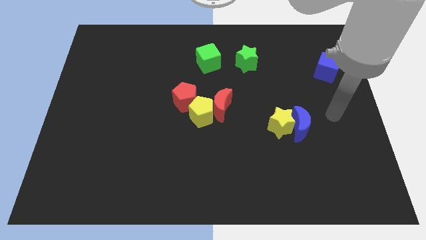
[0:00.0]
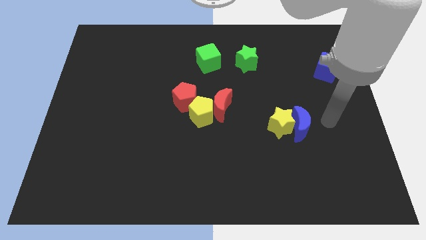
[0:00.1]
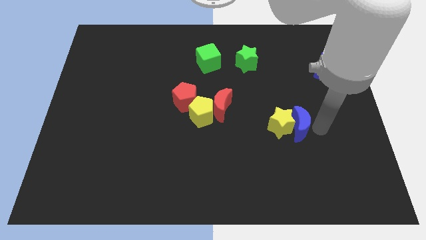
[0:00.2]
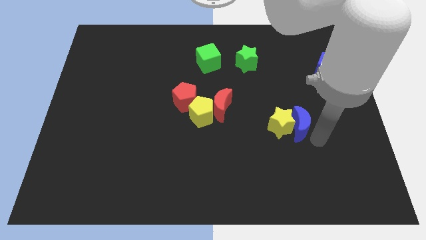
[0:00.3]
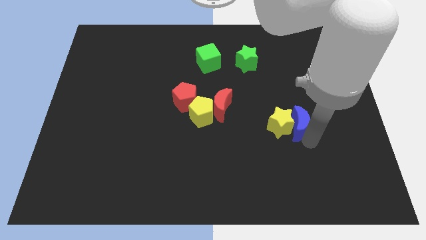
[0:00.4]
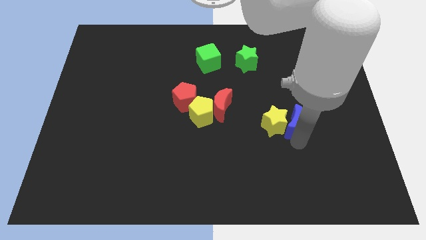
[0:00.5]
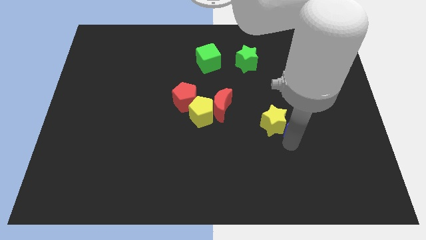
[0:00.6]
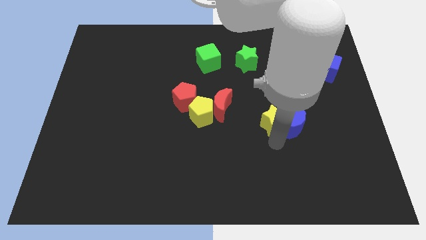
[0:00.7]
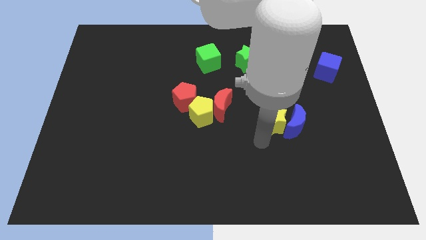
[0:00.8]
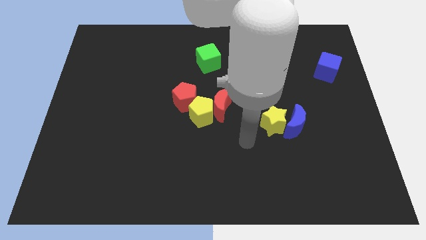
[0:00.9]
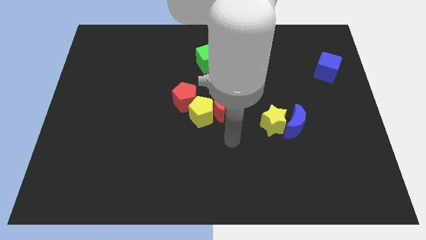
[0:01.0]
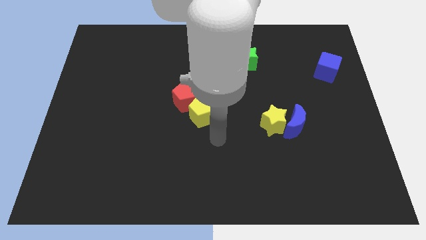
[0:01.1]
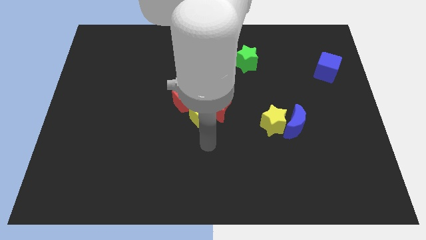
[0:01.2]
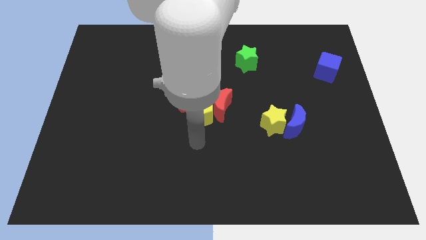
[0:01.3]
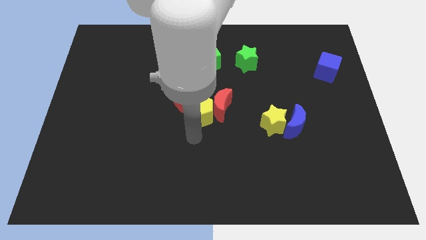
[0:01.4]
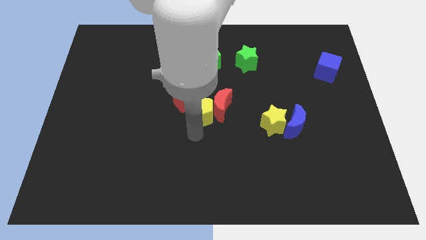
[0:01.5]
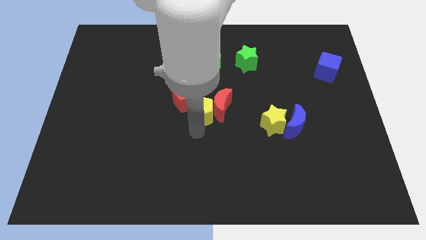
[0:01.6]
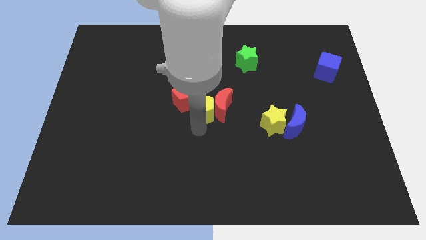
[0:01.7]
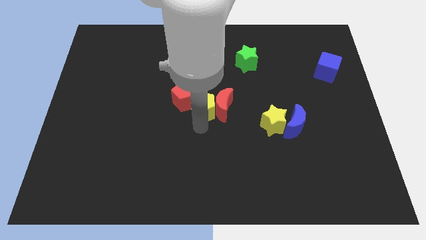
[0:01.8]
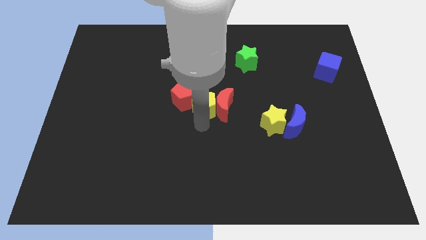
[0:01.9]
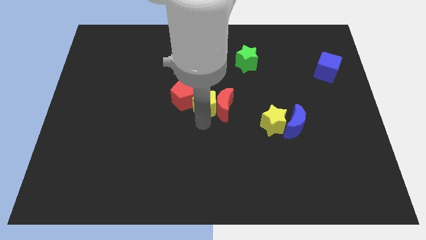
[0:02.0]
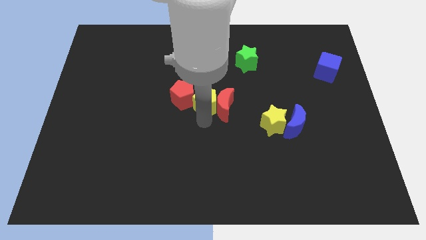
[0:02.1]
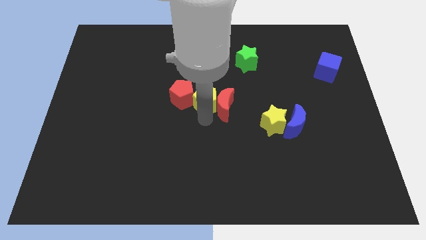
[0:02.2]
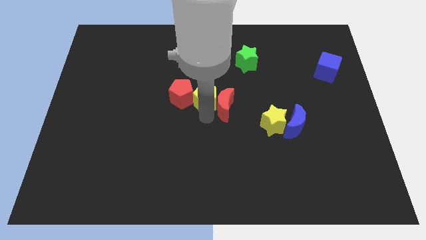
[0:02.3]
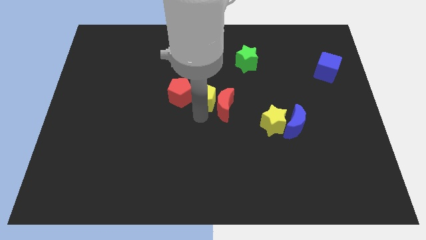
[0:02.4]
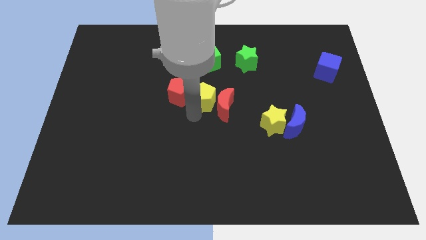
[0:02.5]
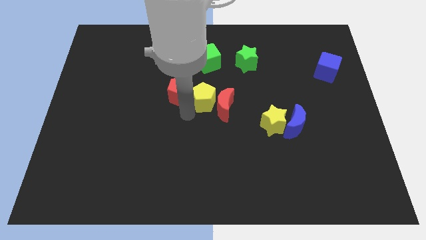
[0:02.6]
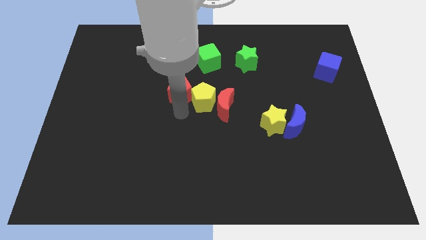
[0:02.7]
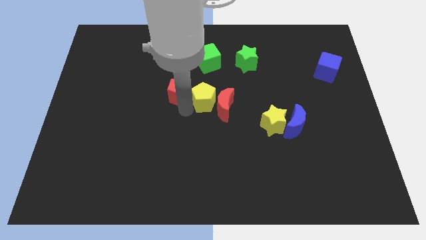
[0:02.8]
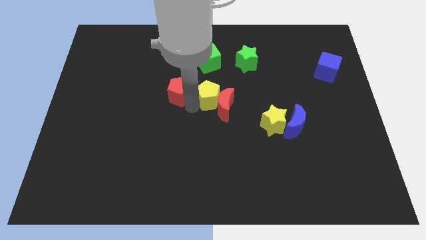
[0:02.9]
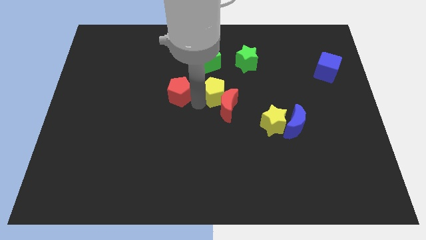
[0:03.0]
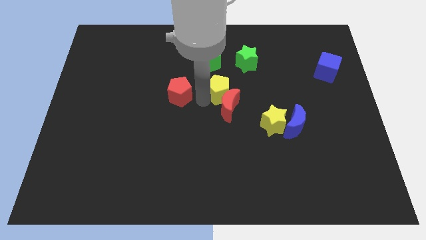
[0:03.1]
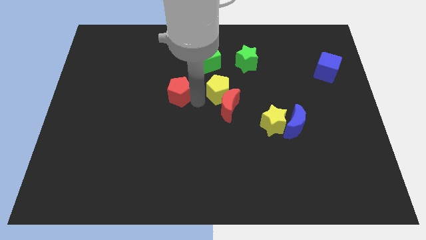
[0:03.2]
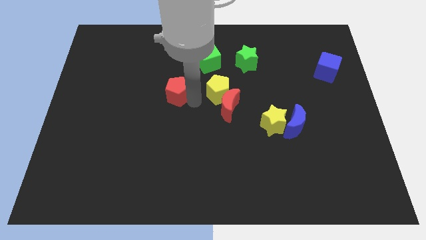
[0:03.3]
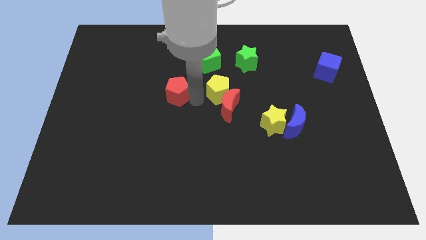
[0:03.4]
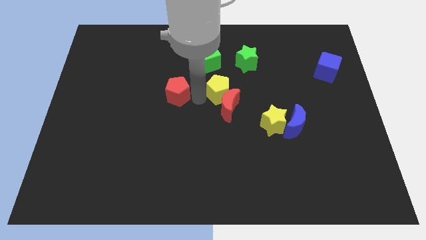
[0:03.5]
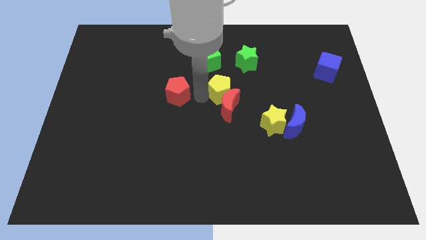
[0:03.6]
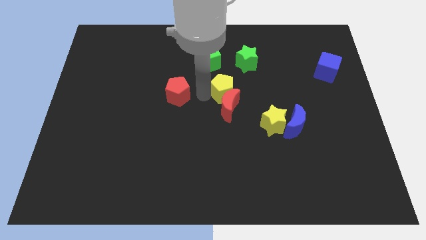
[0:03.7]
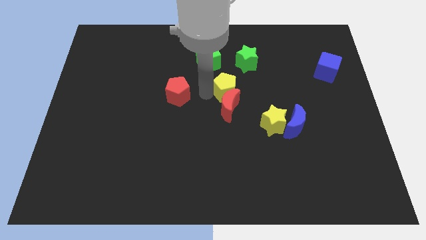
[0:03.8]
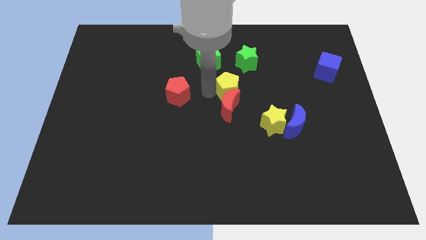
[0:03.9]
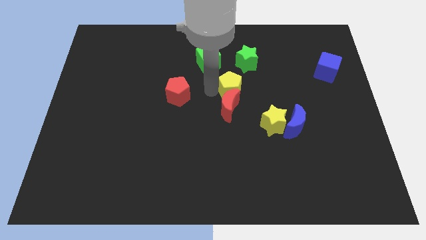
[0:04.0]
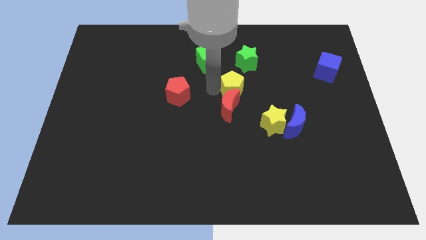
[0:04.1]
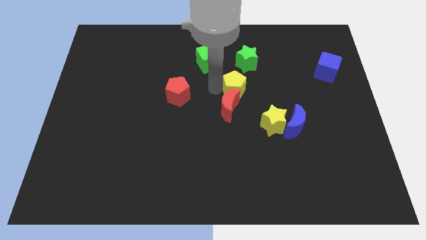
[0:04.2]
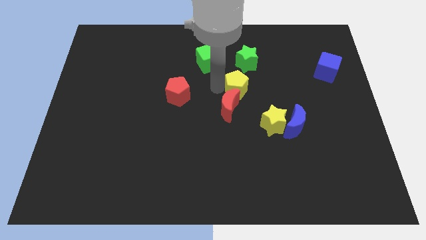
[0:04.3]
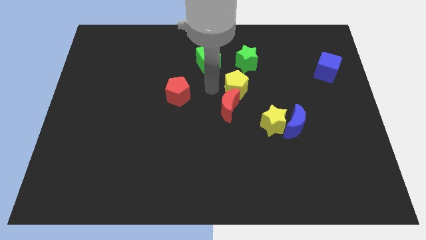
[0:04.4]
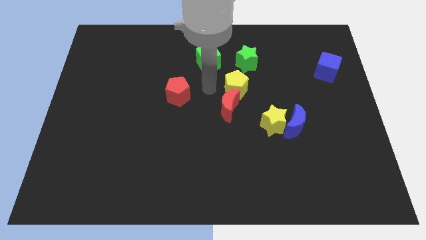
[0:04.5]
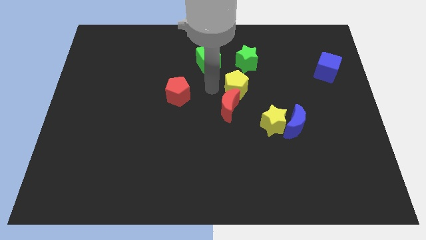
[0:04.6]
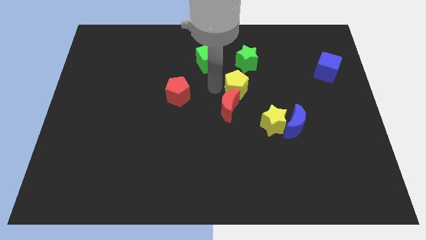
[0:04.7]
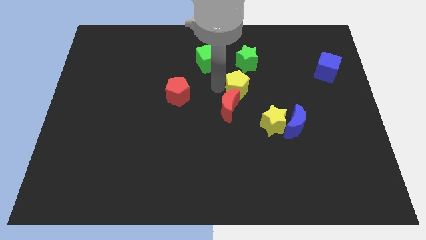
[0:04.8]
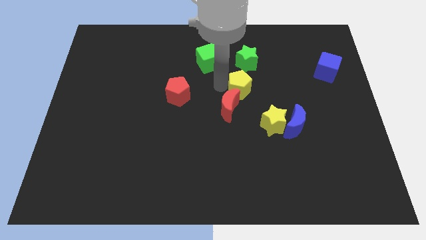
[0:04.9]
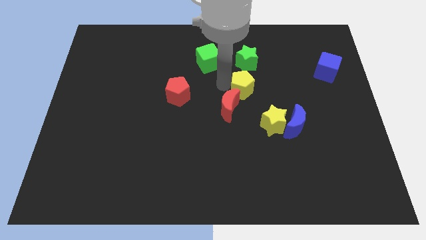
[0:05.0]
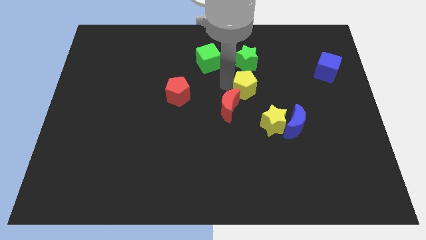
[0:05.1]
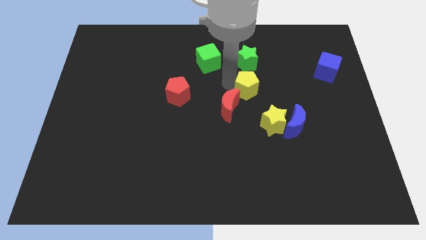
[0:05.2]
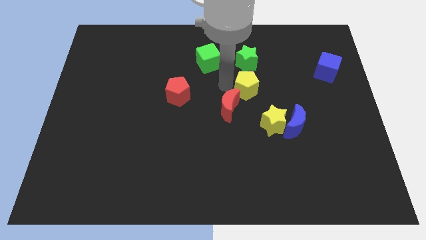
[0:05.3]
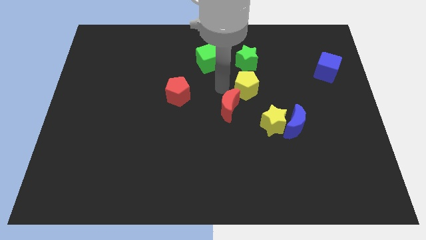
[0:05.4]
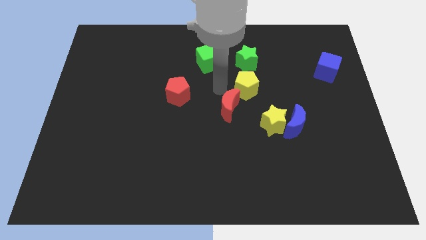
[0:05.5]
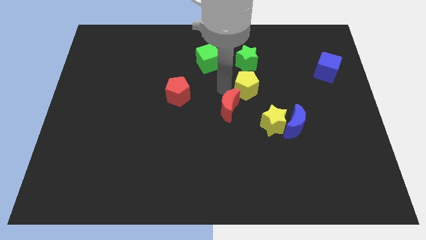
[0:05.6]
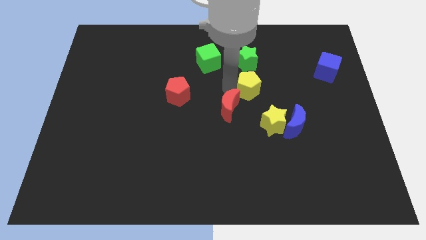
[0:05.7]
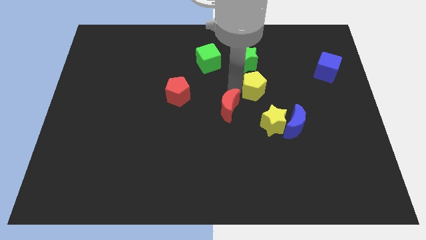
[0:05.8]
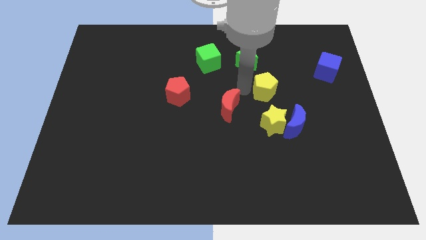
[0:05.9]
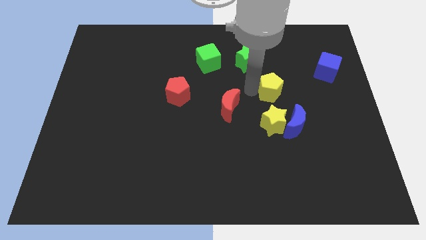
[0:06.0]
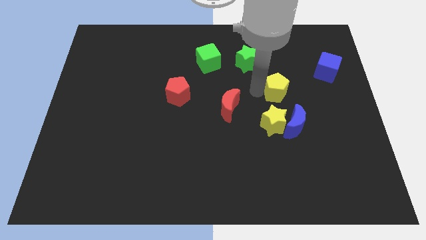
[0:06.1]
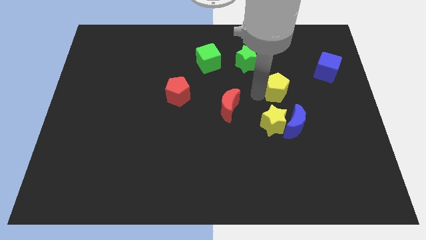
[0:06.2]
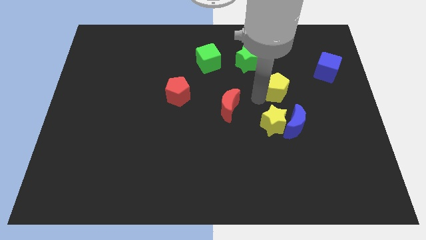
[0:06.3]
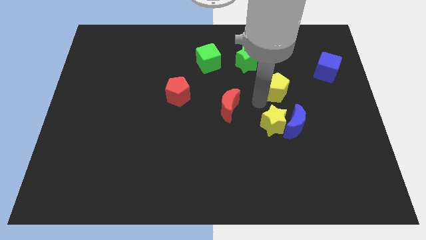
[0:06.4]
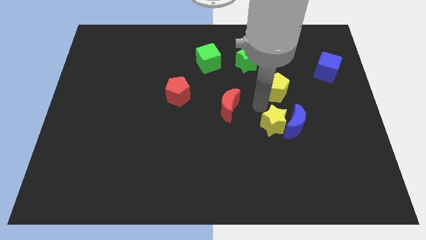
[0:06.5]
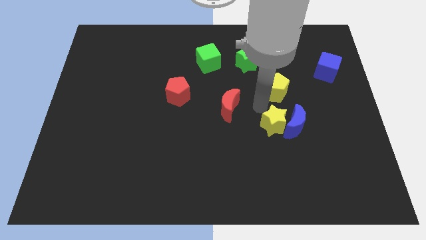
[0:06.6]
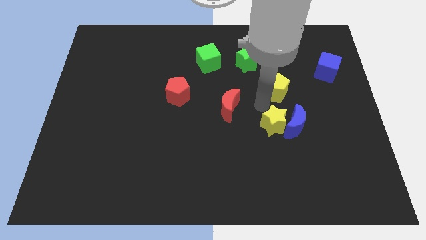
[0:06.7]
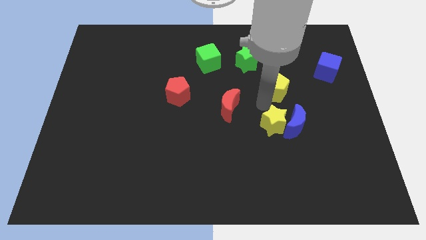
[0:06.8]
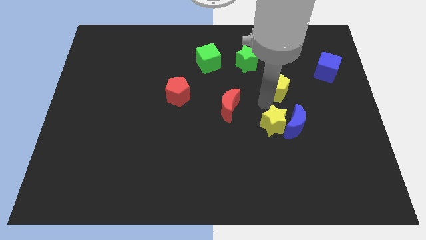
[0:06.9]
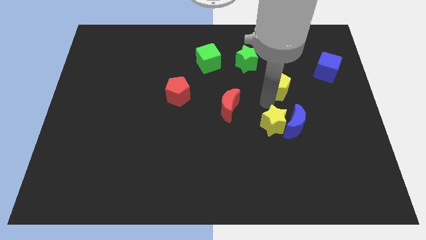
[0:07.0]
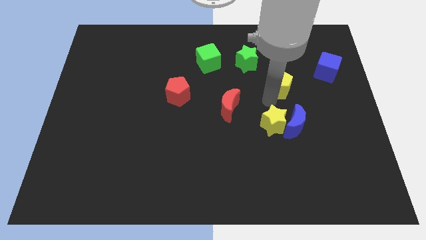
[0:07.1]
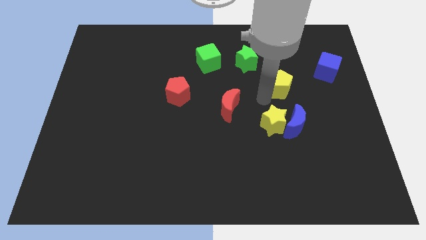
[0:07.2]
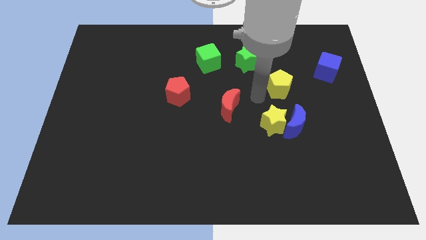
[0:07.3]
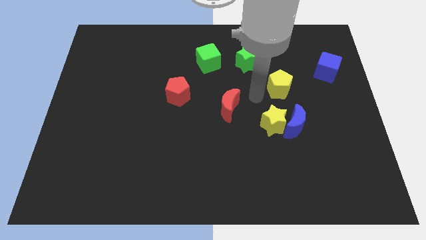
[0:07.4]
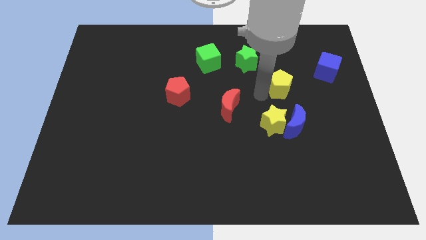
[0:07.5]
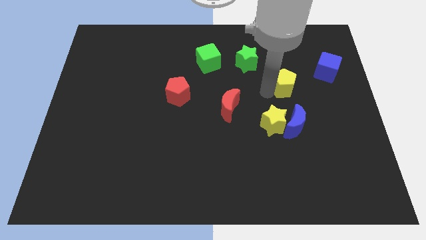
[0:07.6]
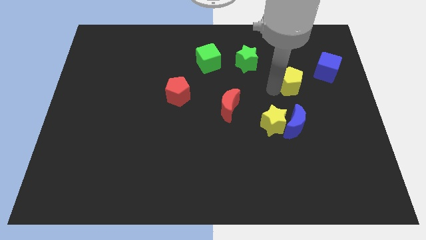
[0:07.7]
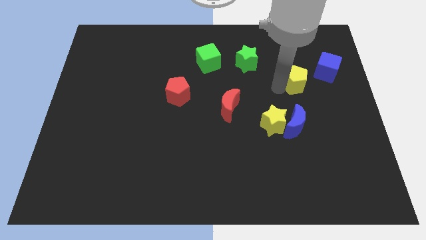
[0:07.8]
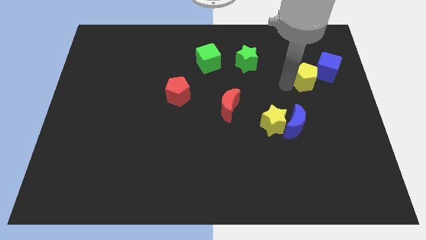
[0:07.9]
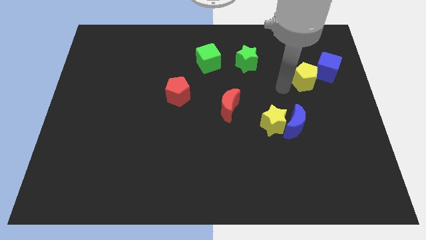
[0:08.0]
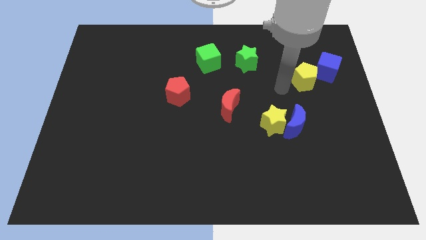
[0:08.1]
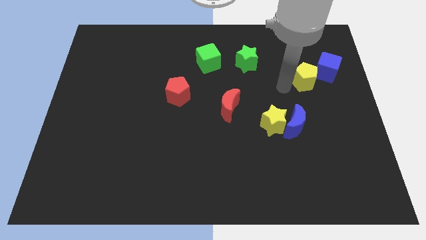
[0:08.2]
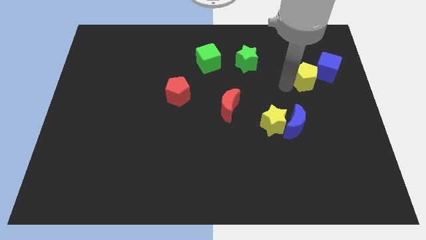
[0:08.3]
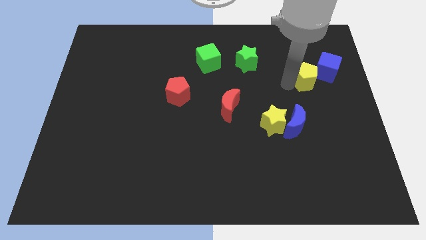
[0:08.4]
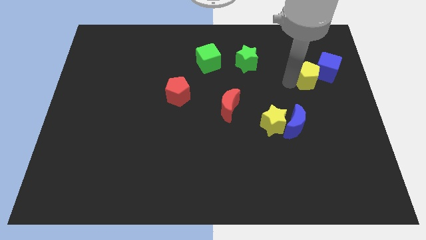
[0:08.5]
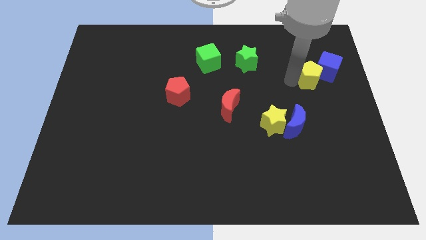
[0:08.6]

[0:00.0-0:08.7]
put the yellow pentagon to the blue cube
